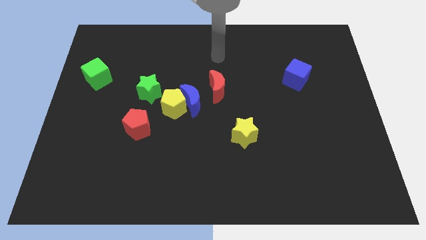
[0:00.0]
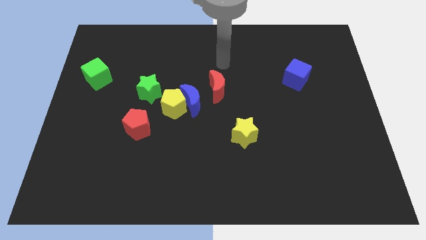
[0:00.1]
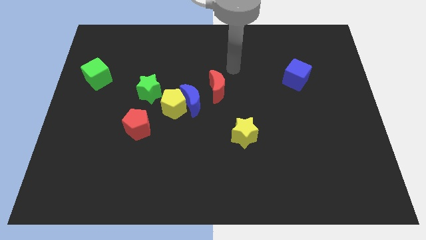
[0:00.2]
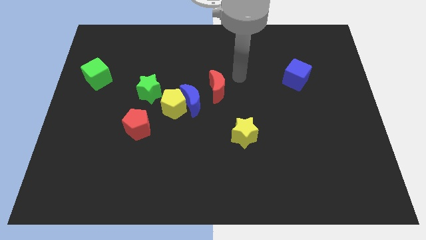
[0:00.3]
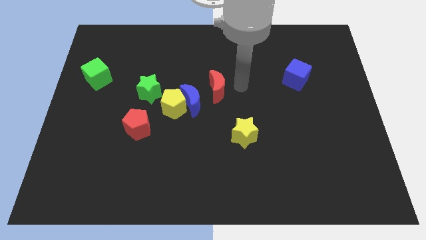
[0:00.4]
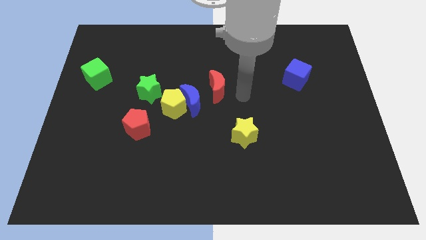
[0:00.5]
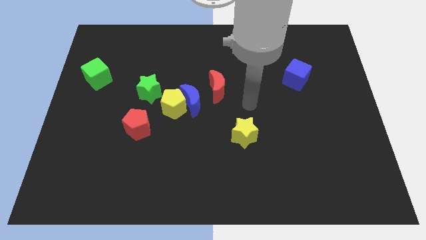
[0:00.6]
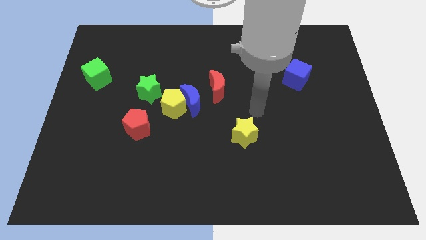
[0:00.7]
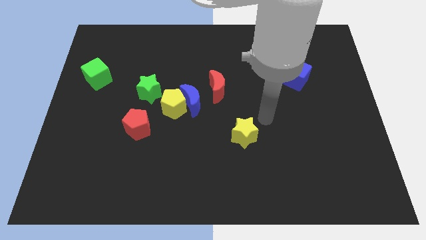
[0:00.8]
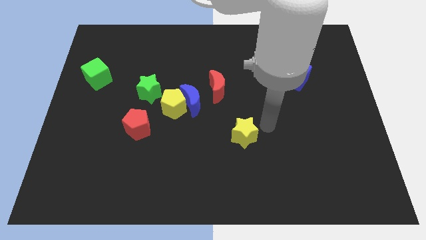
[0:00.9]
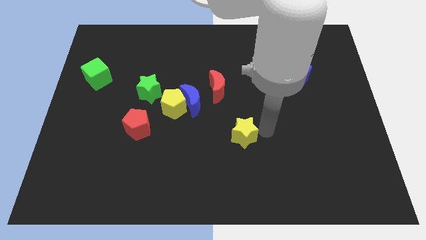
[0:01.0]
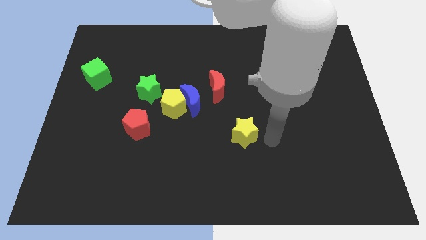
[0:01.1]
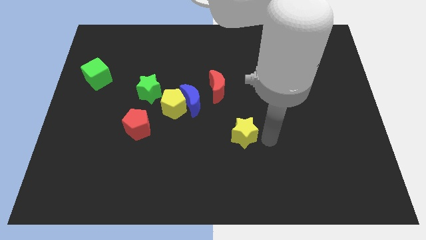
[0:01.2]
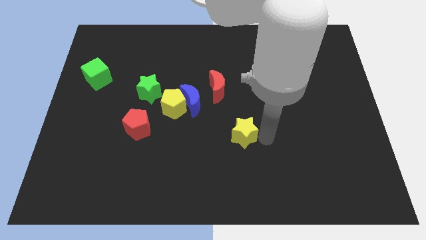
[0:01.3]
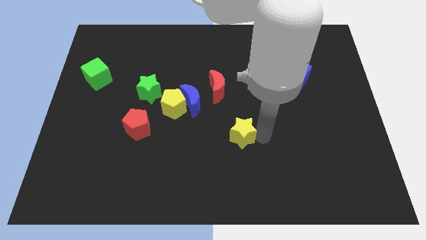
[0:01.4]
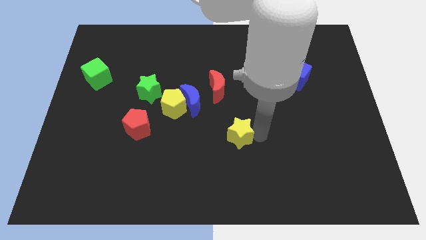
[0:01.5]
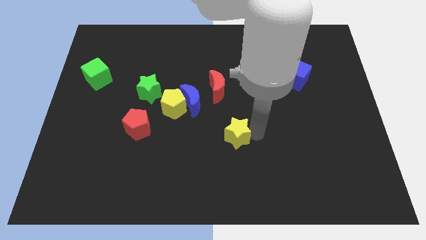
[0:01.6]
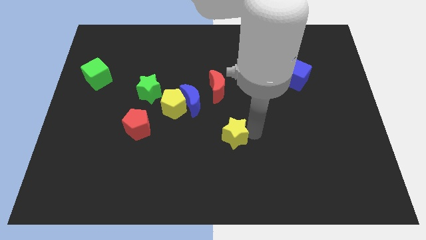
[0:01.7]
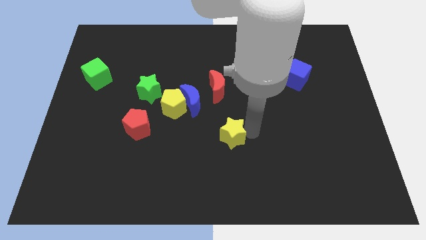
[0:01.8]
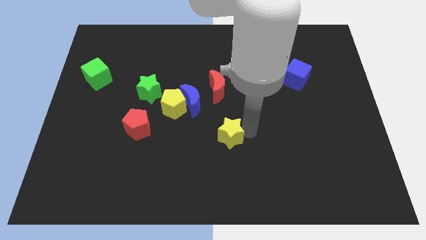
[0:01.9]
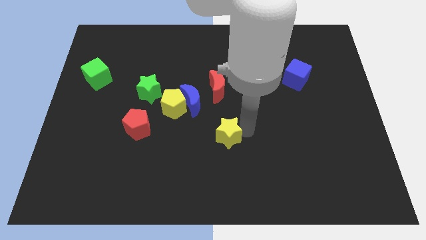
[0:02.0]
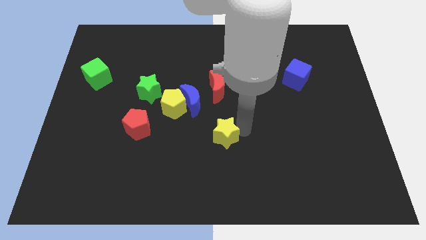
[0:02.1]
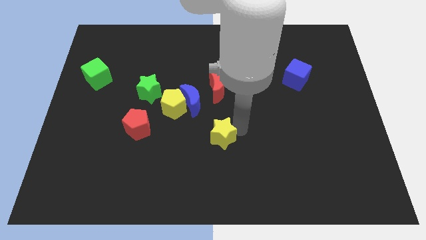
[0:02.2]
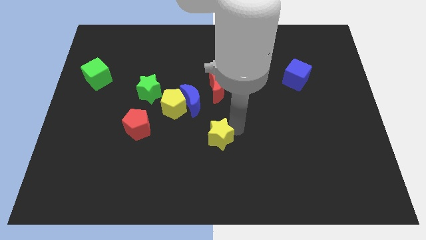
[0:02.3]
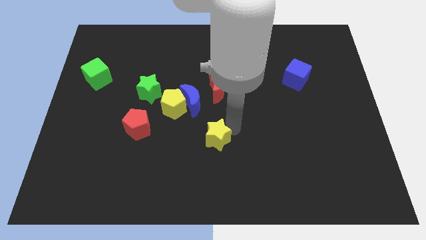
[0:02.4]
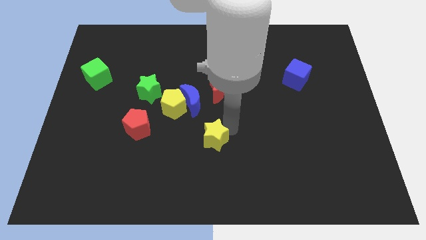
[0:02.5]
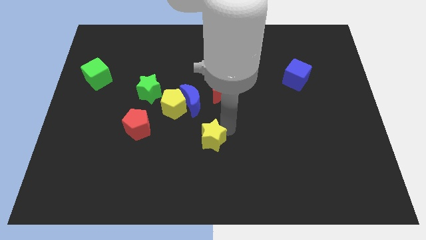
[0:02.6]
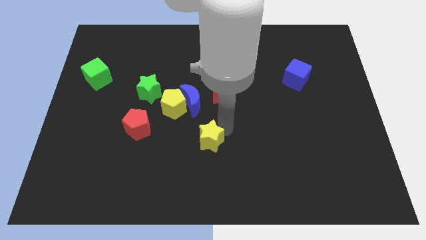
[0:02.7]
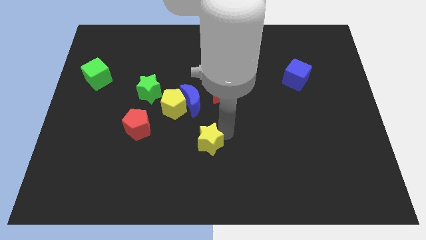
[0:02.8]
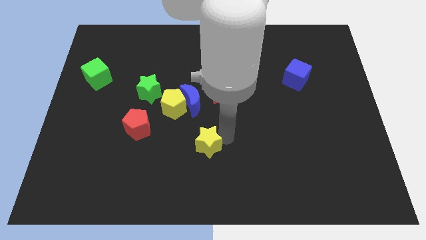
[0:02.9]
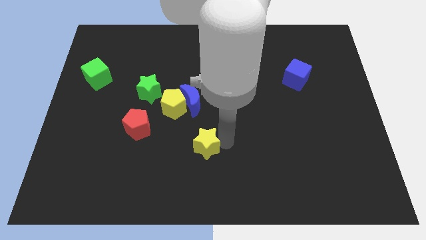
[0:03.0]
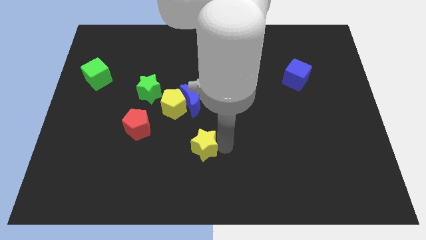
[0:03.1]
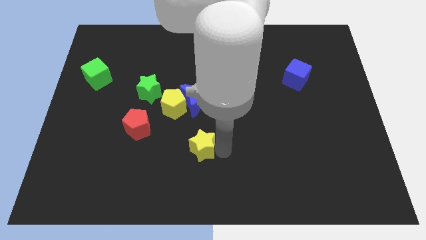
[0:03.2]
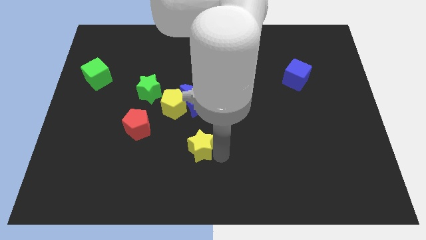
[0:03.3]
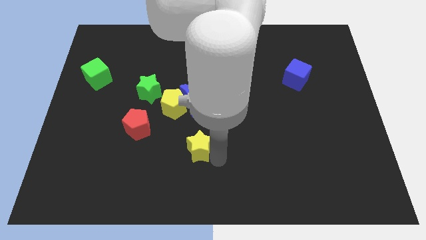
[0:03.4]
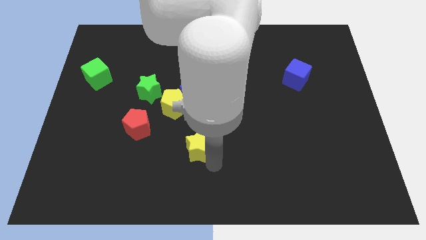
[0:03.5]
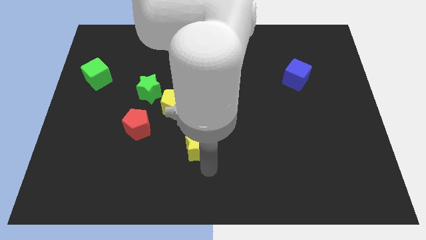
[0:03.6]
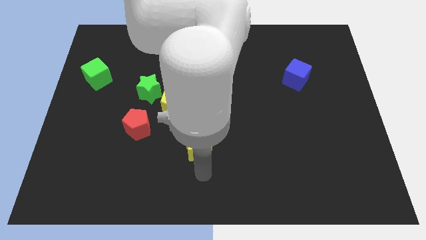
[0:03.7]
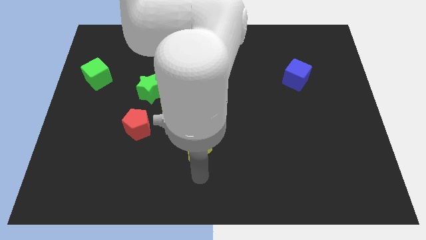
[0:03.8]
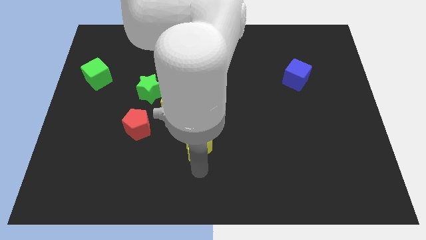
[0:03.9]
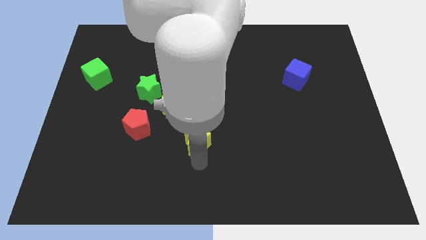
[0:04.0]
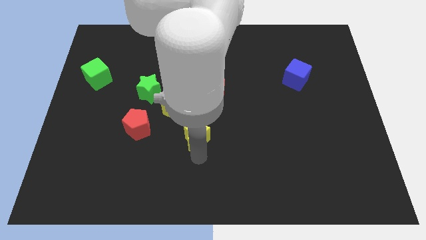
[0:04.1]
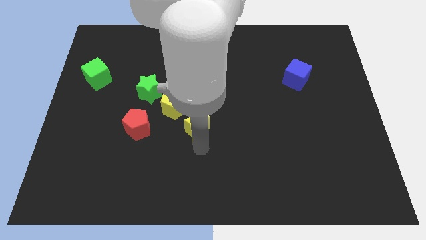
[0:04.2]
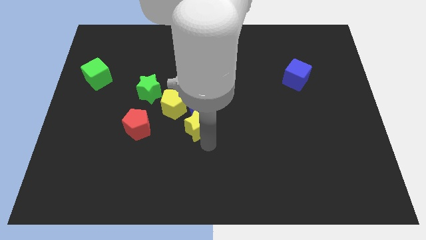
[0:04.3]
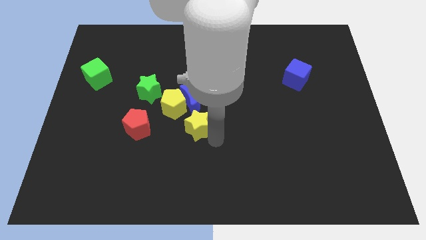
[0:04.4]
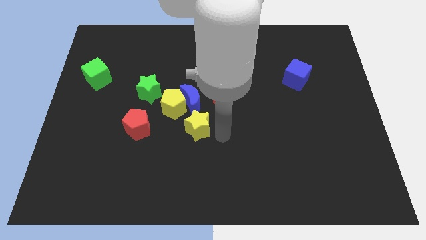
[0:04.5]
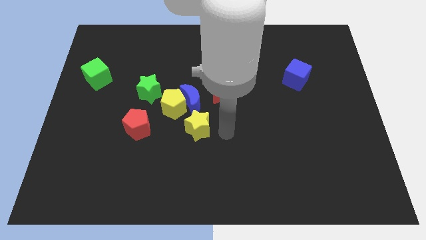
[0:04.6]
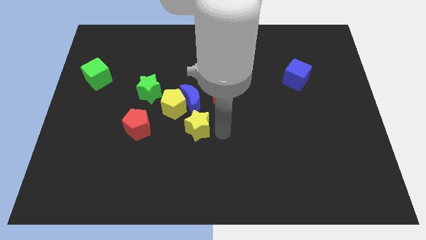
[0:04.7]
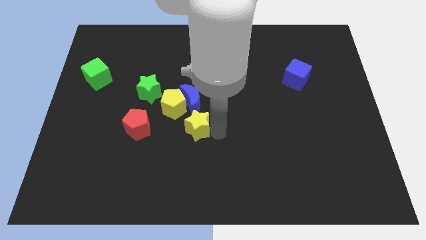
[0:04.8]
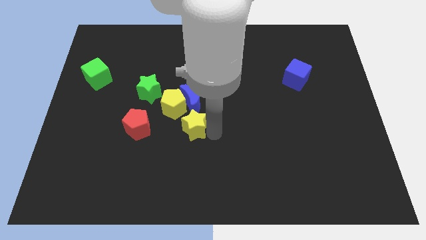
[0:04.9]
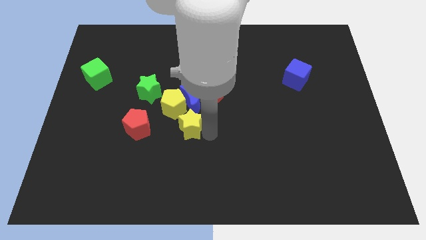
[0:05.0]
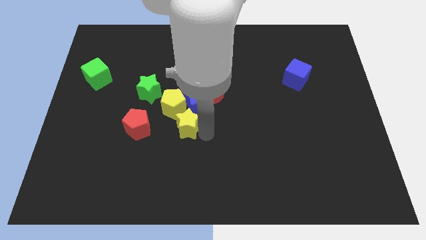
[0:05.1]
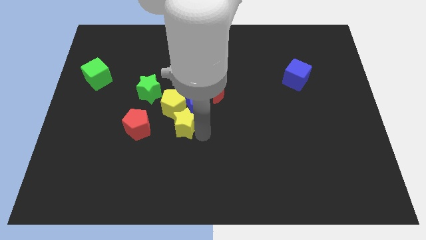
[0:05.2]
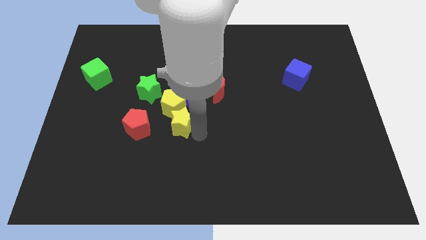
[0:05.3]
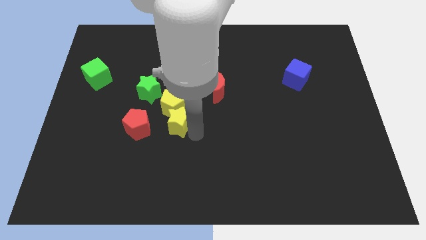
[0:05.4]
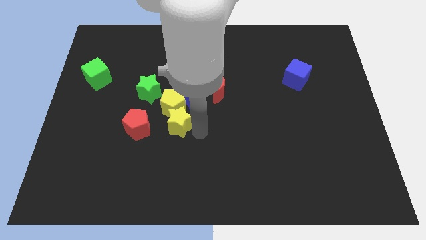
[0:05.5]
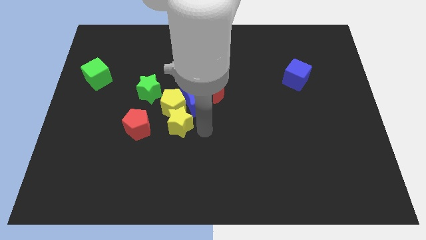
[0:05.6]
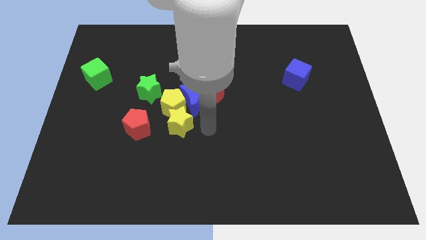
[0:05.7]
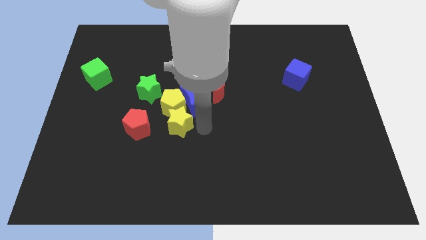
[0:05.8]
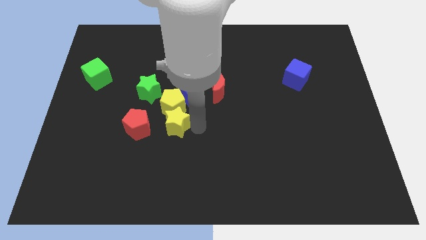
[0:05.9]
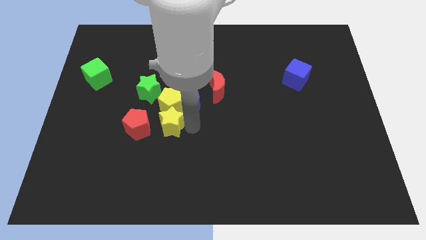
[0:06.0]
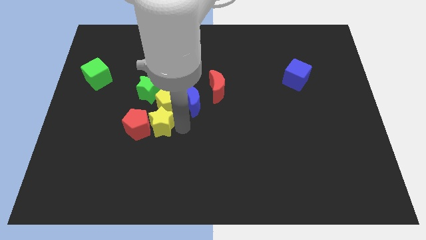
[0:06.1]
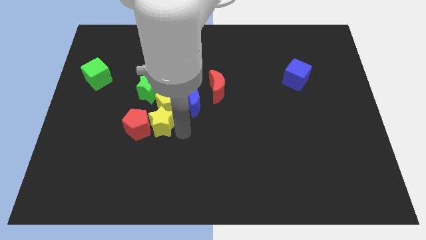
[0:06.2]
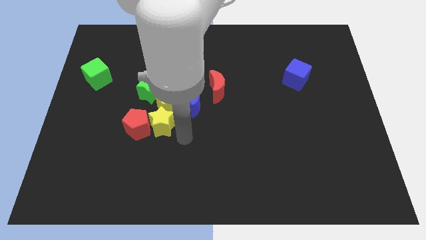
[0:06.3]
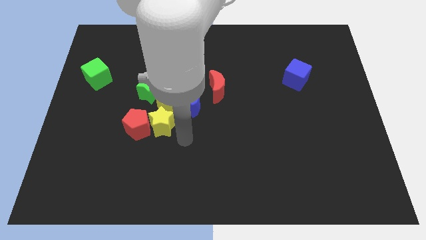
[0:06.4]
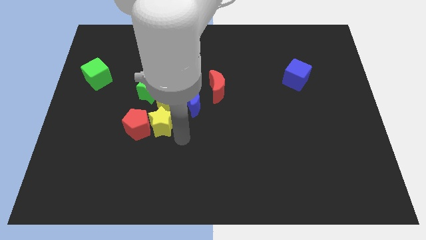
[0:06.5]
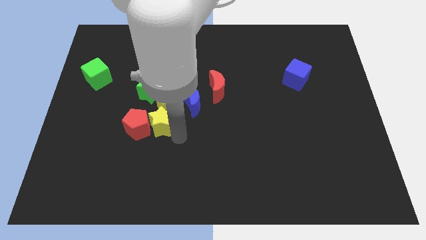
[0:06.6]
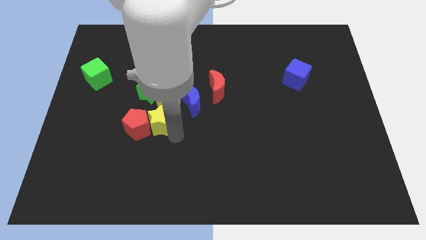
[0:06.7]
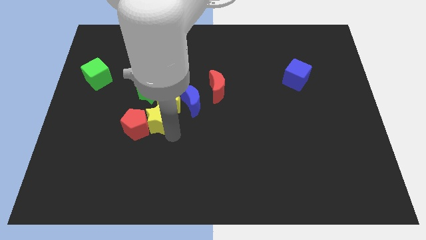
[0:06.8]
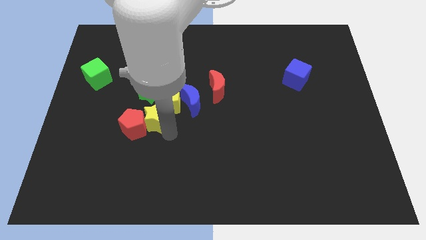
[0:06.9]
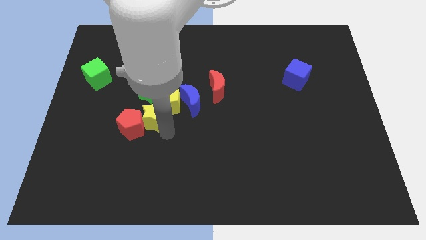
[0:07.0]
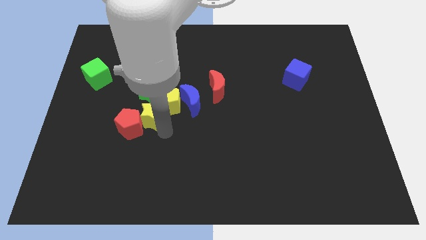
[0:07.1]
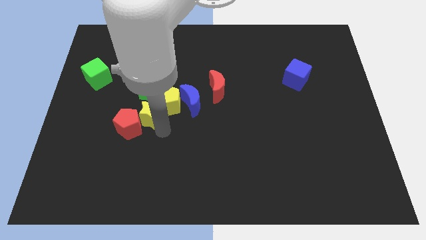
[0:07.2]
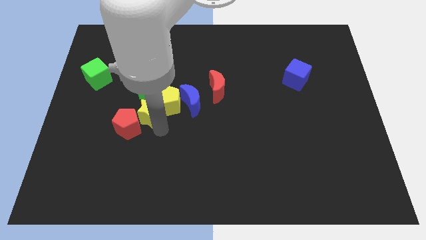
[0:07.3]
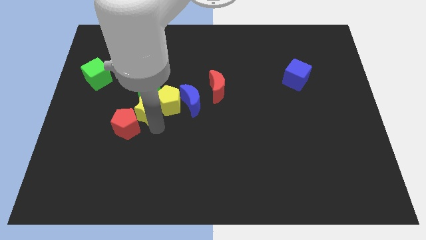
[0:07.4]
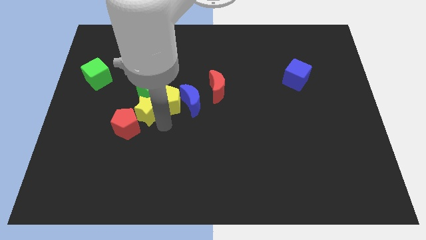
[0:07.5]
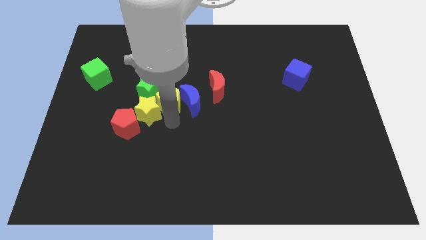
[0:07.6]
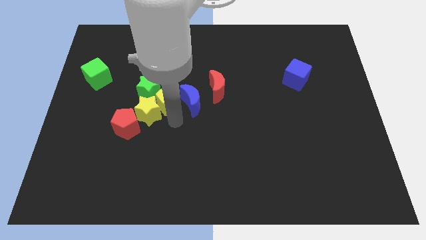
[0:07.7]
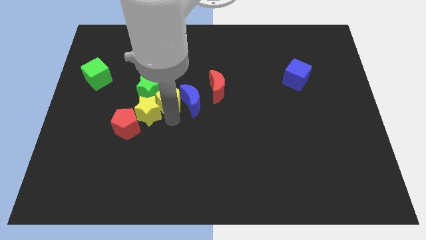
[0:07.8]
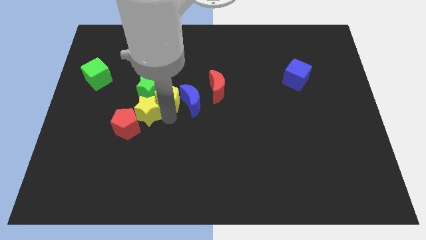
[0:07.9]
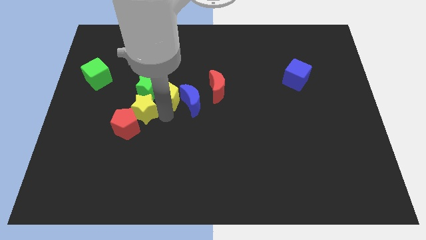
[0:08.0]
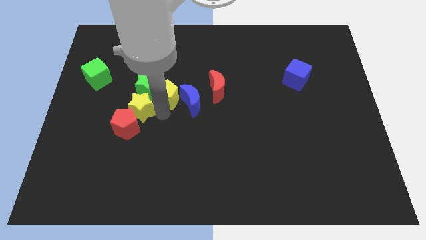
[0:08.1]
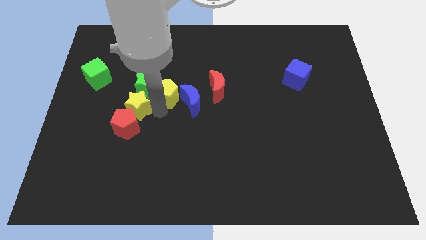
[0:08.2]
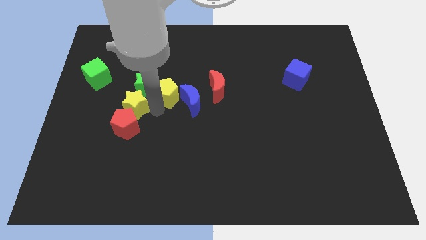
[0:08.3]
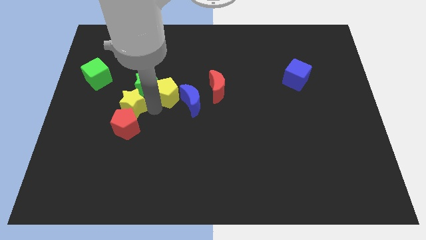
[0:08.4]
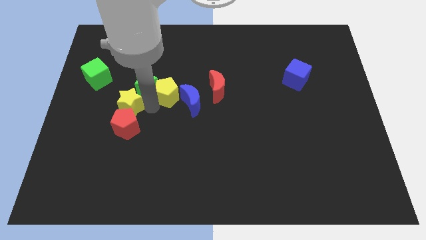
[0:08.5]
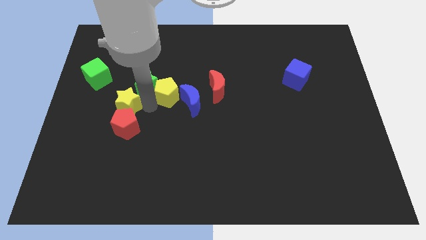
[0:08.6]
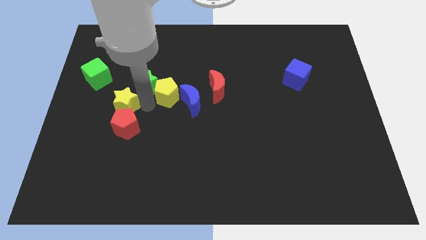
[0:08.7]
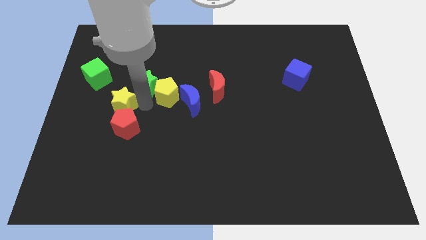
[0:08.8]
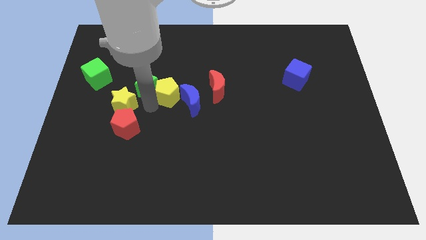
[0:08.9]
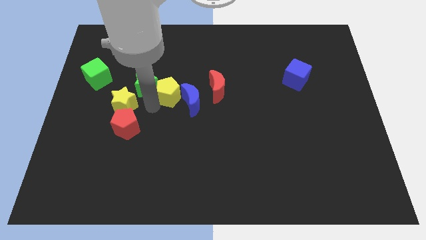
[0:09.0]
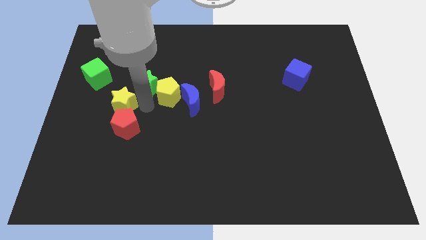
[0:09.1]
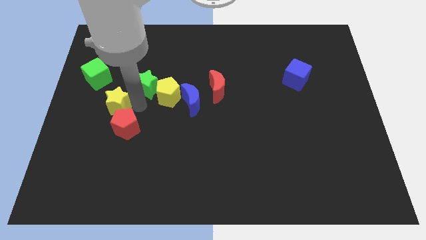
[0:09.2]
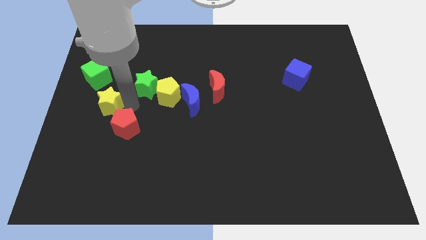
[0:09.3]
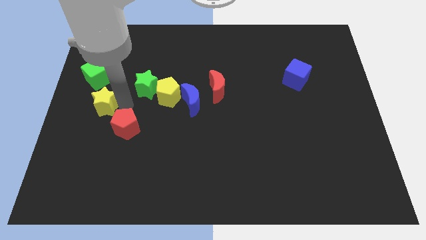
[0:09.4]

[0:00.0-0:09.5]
put the yellow star to the left side
